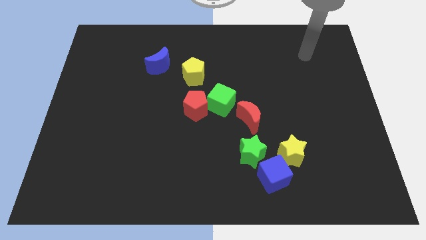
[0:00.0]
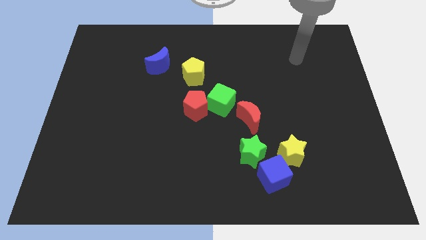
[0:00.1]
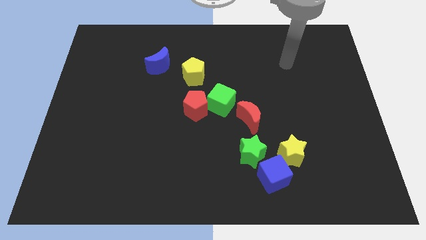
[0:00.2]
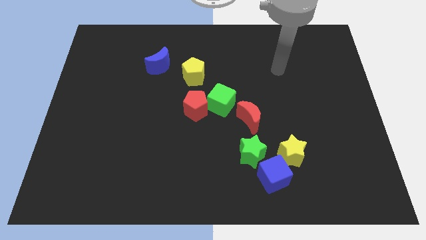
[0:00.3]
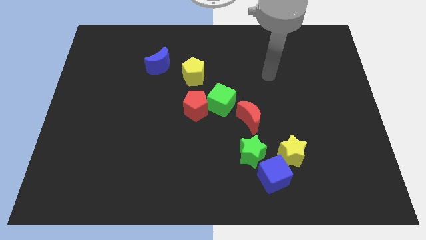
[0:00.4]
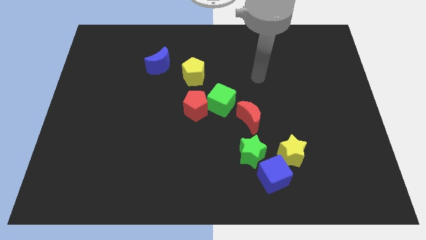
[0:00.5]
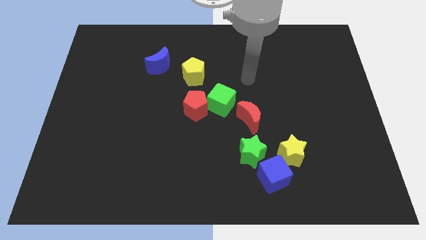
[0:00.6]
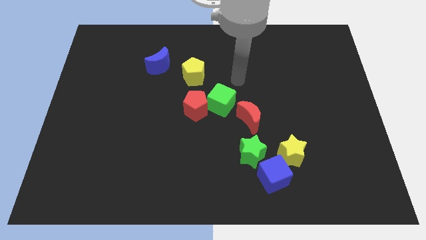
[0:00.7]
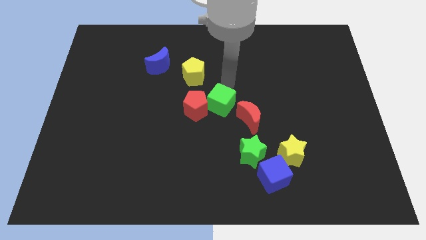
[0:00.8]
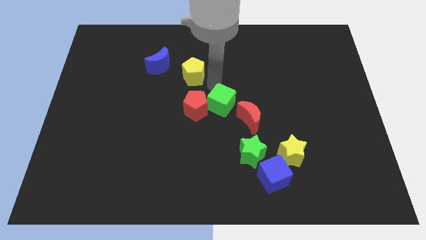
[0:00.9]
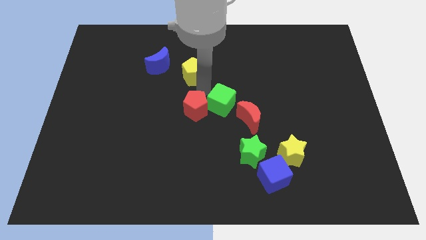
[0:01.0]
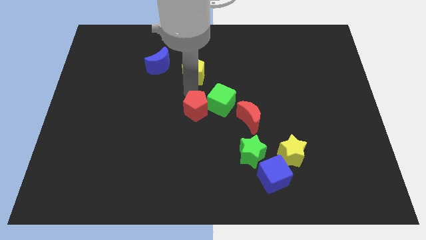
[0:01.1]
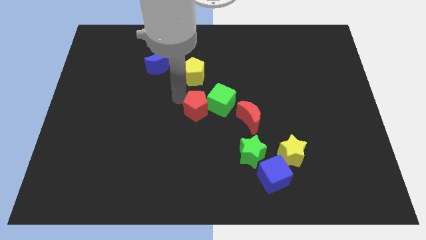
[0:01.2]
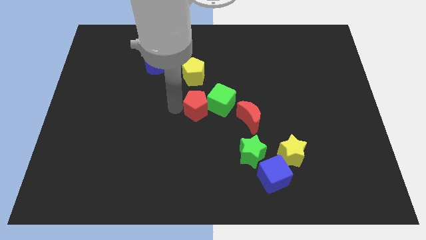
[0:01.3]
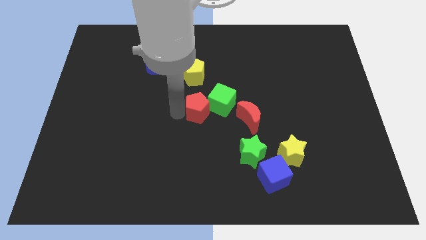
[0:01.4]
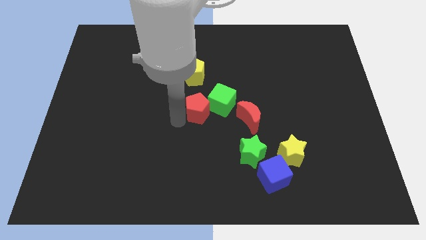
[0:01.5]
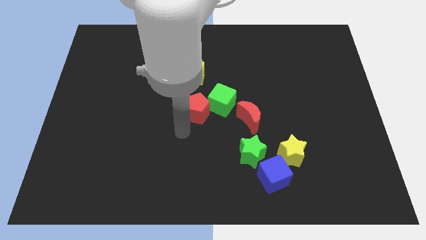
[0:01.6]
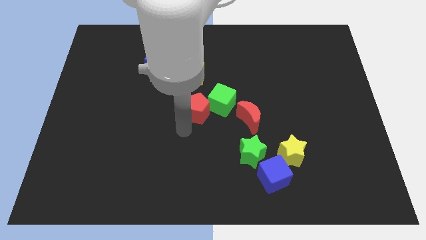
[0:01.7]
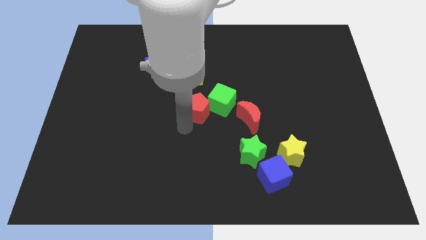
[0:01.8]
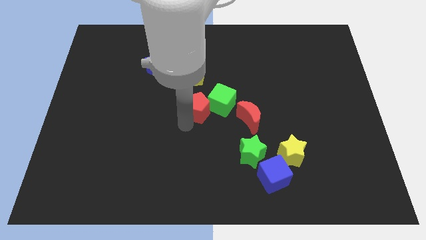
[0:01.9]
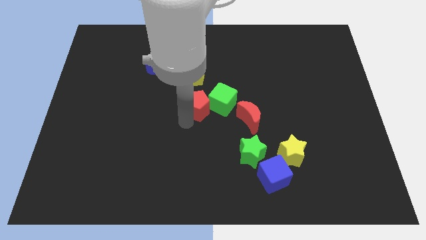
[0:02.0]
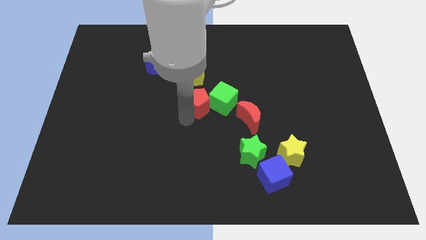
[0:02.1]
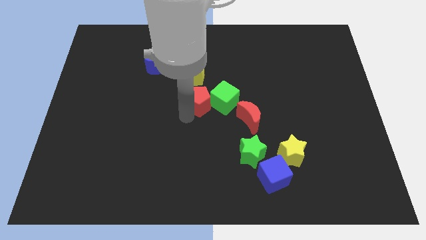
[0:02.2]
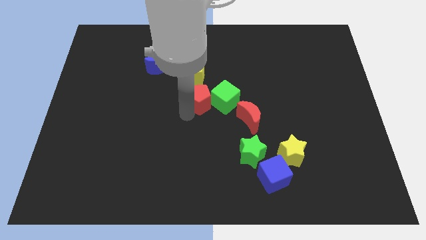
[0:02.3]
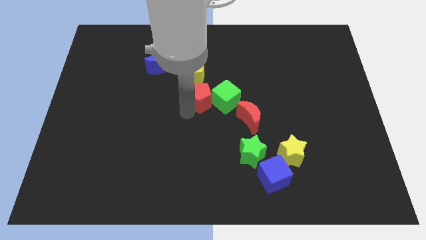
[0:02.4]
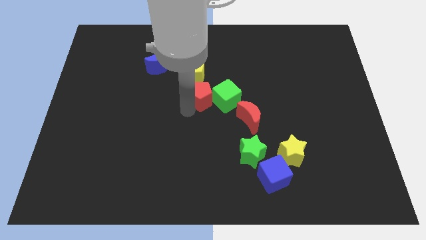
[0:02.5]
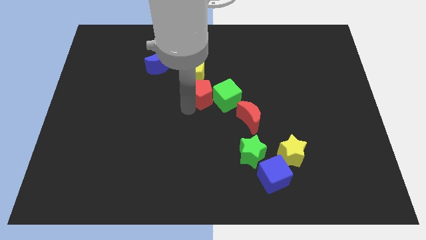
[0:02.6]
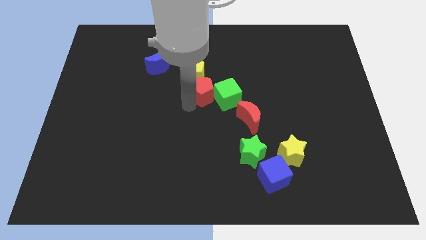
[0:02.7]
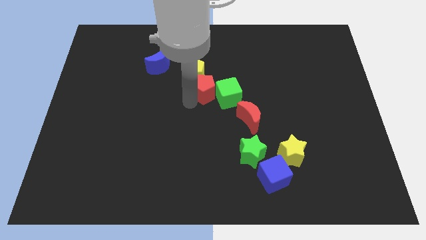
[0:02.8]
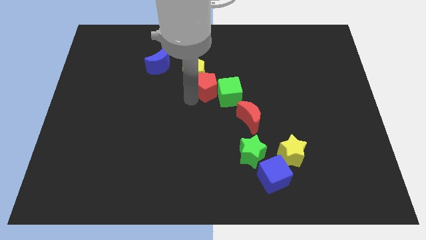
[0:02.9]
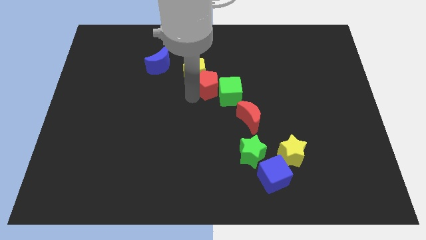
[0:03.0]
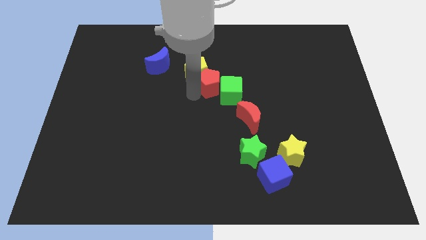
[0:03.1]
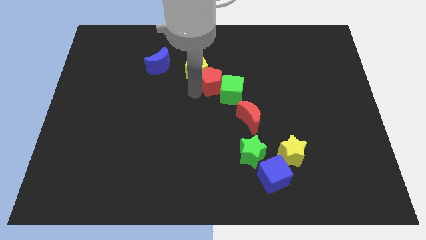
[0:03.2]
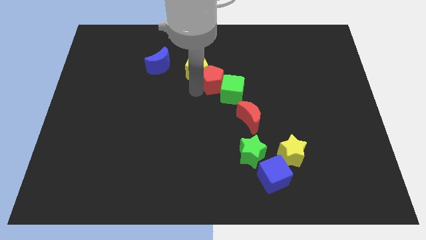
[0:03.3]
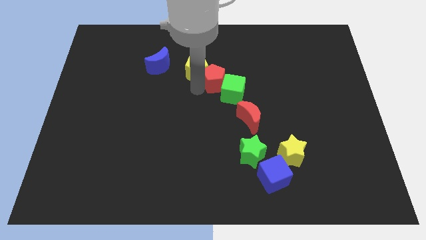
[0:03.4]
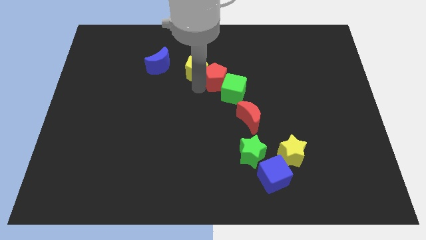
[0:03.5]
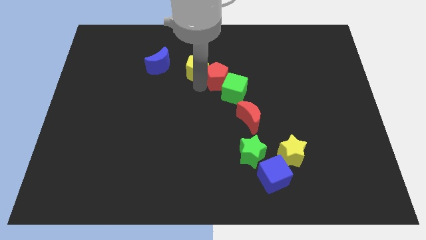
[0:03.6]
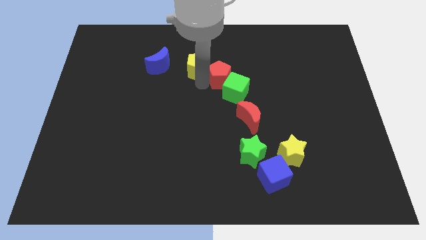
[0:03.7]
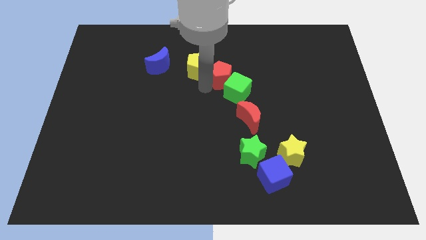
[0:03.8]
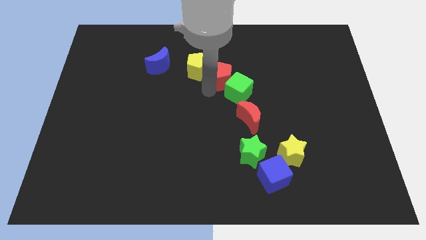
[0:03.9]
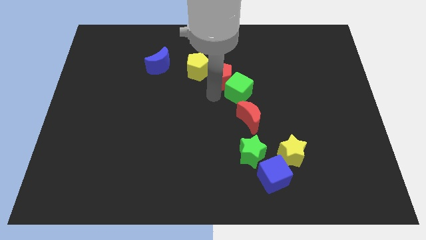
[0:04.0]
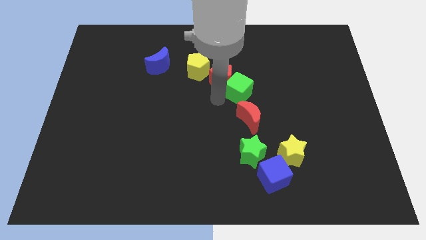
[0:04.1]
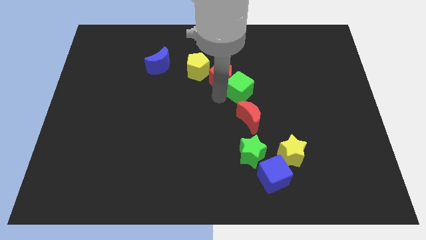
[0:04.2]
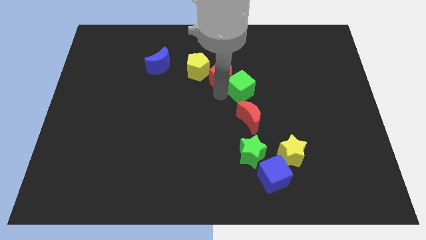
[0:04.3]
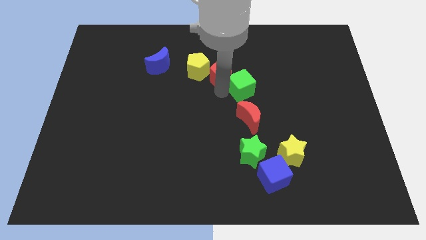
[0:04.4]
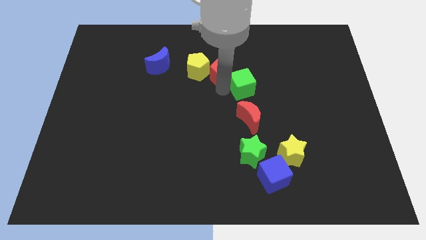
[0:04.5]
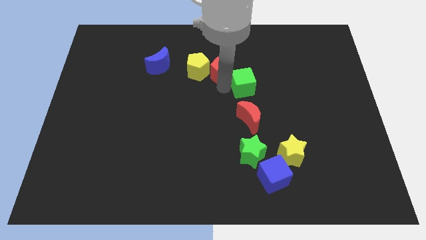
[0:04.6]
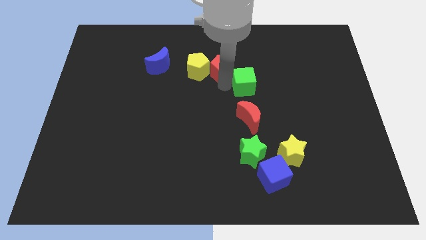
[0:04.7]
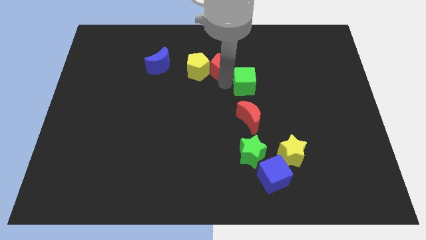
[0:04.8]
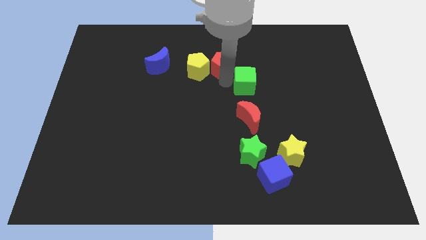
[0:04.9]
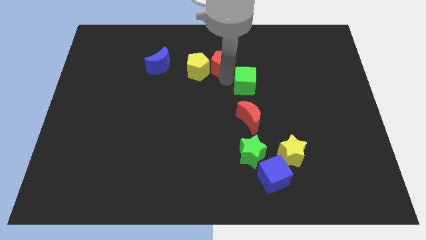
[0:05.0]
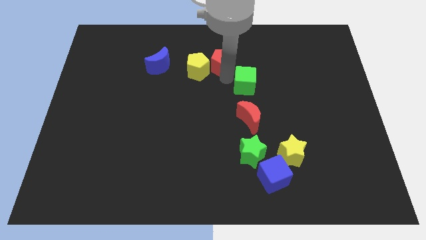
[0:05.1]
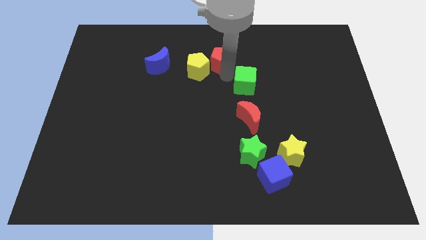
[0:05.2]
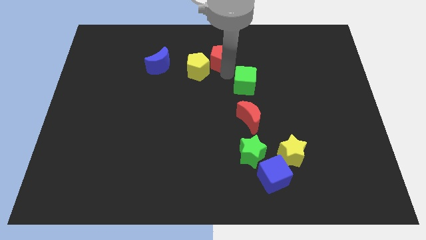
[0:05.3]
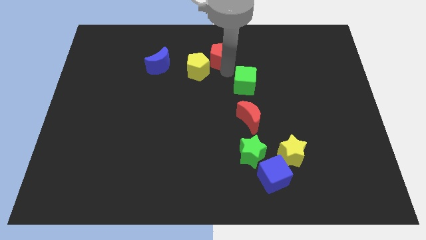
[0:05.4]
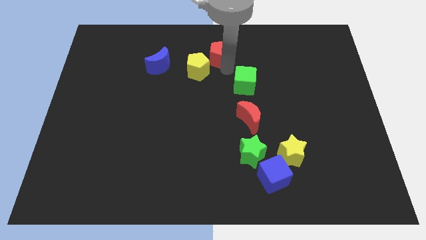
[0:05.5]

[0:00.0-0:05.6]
slide the red pentagon to the top

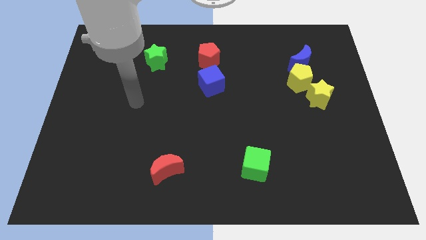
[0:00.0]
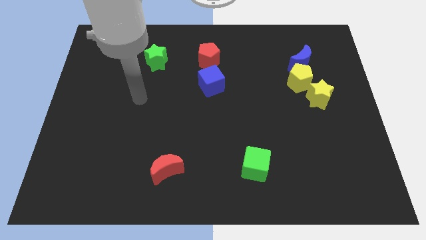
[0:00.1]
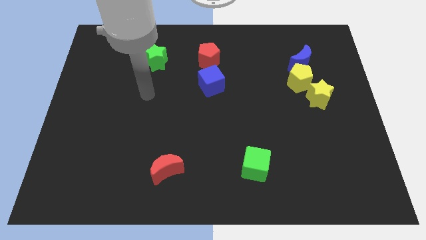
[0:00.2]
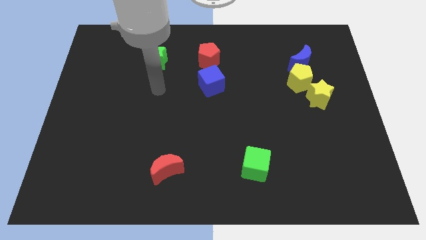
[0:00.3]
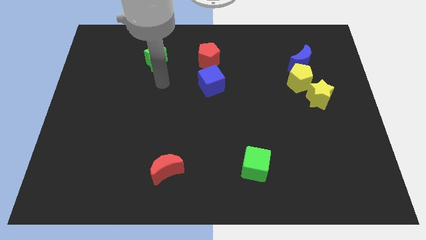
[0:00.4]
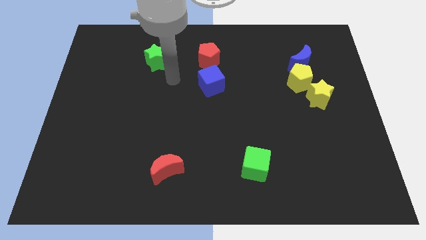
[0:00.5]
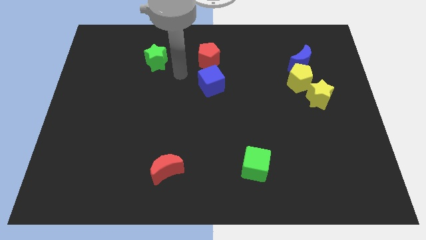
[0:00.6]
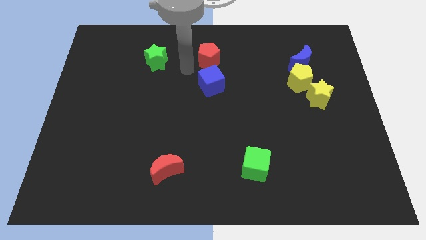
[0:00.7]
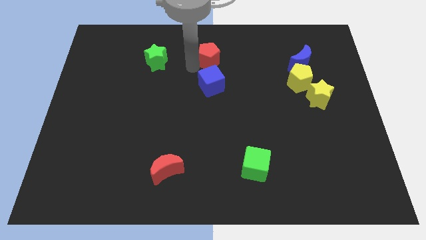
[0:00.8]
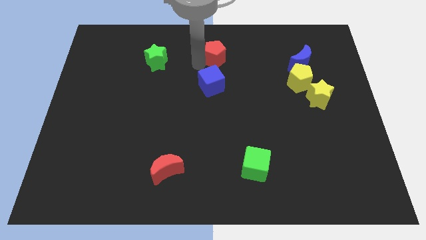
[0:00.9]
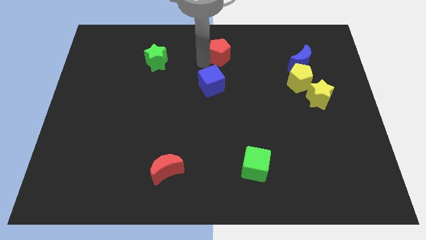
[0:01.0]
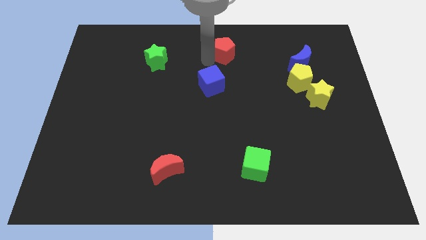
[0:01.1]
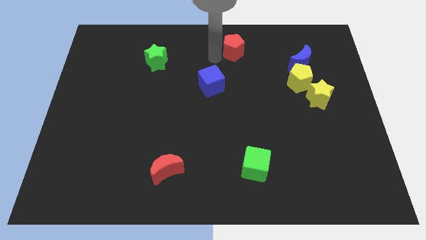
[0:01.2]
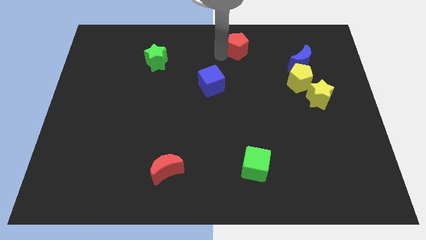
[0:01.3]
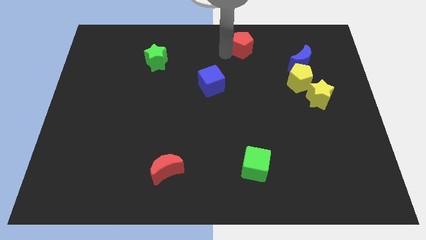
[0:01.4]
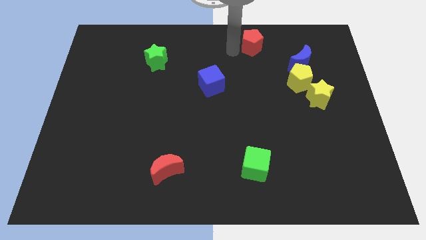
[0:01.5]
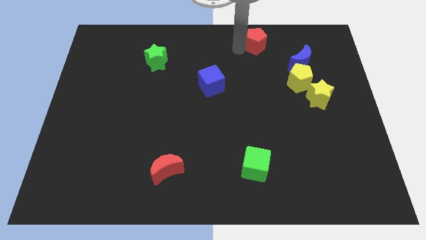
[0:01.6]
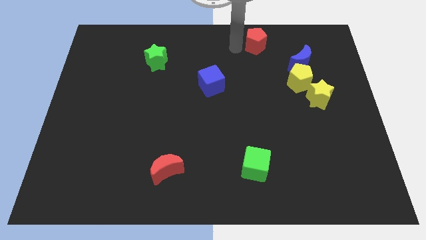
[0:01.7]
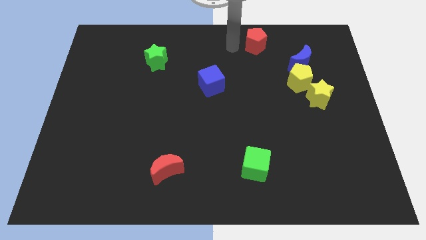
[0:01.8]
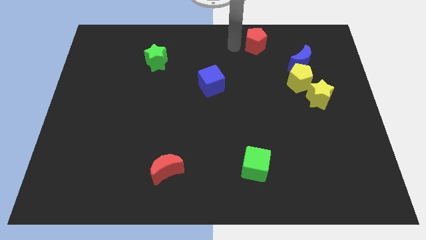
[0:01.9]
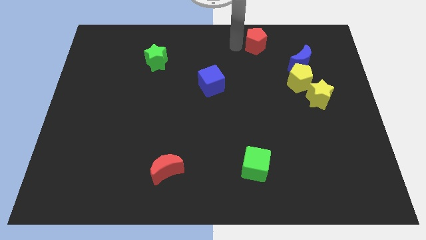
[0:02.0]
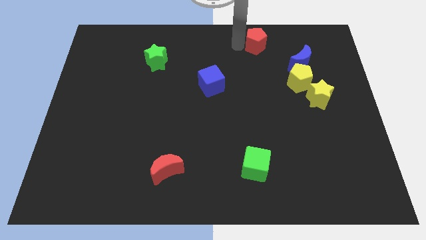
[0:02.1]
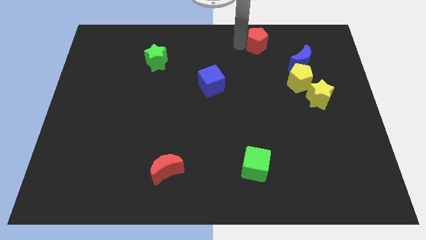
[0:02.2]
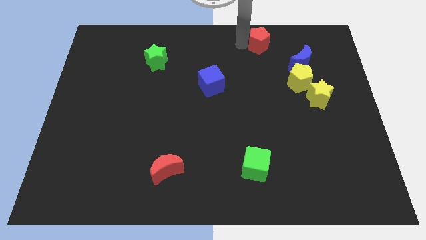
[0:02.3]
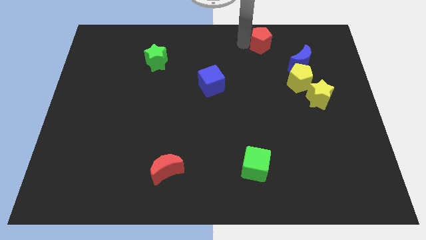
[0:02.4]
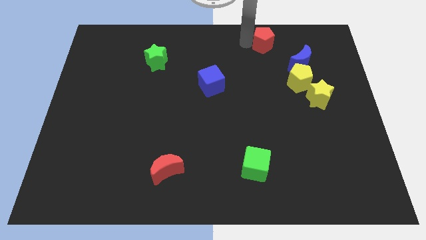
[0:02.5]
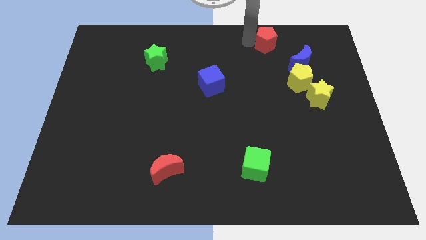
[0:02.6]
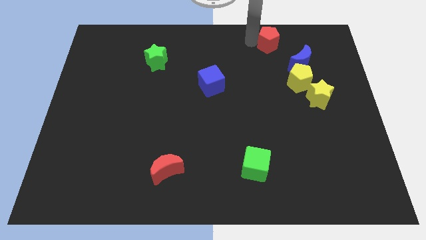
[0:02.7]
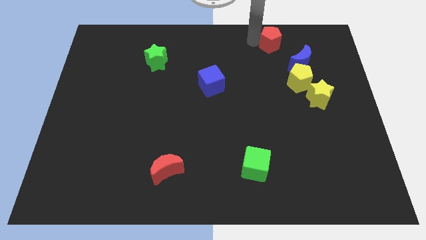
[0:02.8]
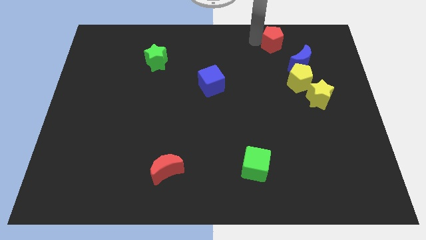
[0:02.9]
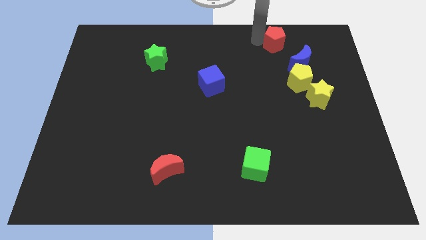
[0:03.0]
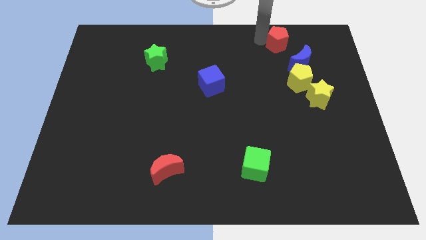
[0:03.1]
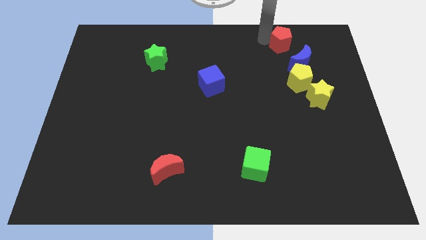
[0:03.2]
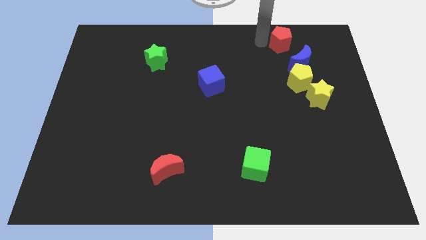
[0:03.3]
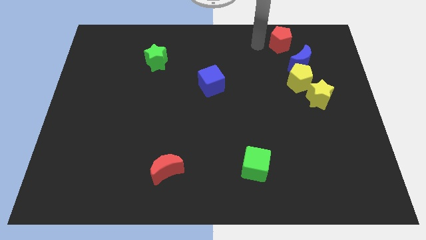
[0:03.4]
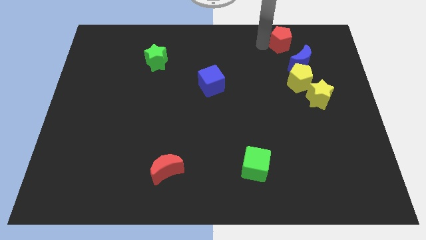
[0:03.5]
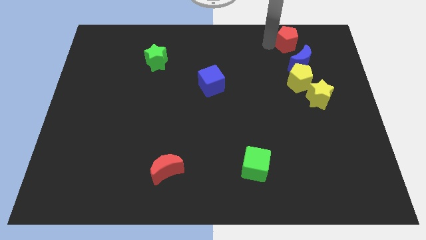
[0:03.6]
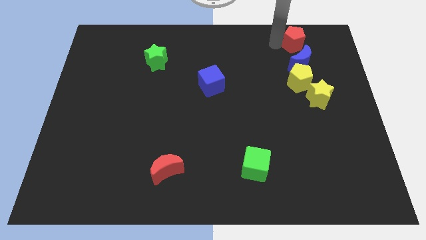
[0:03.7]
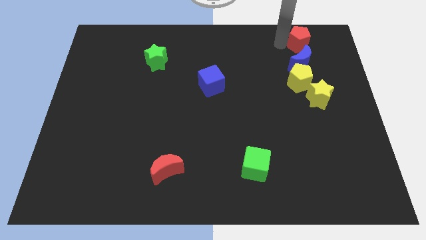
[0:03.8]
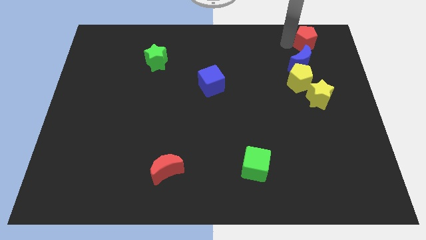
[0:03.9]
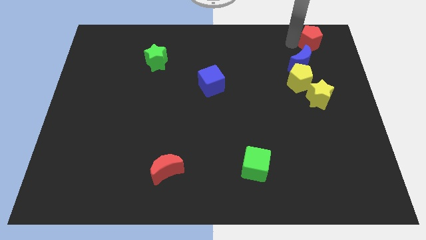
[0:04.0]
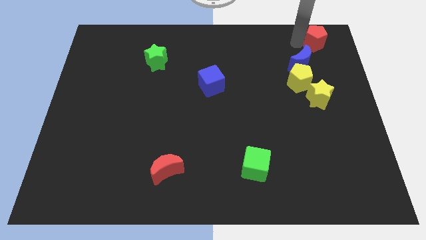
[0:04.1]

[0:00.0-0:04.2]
push the red pentagon to the top right
